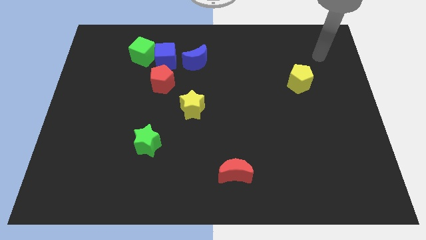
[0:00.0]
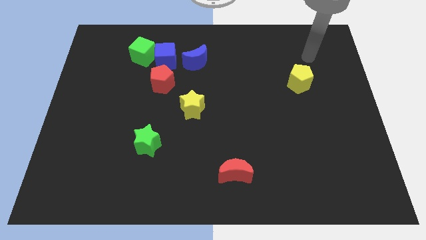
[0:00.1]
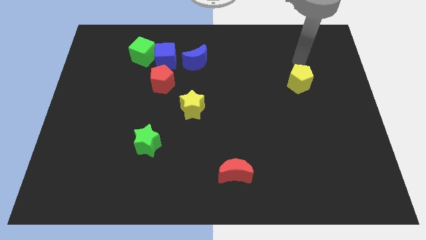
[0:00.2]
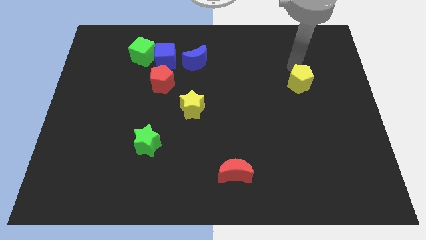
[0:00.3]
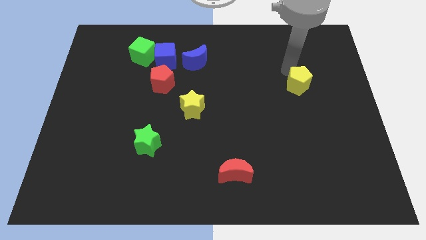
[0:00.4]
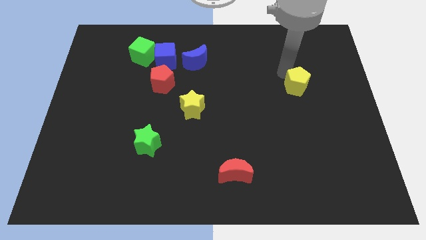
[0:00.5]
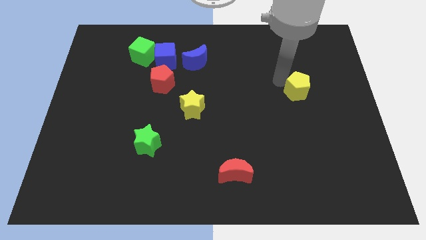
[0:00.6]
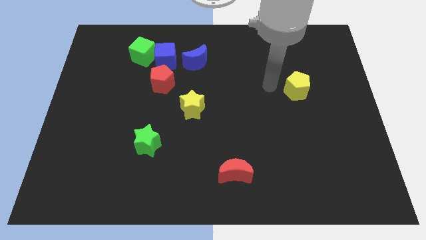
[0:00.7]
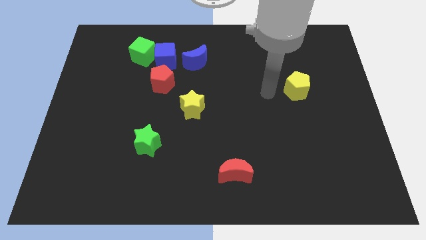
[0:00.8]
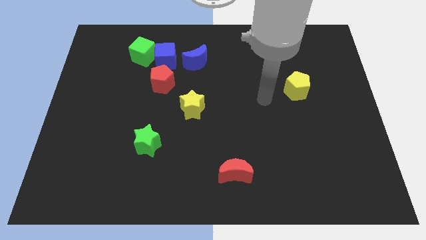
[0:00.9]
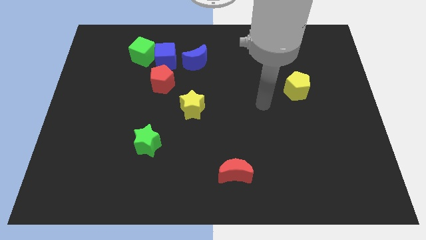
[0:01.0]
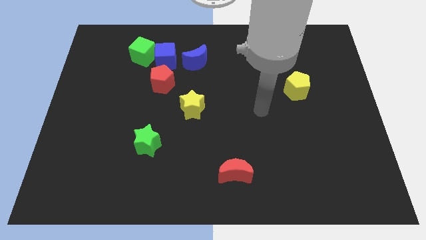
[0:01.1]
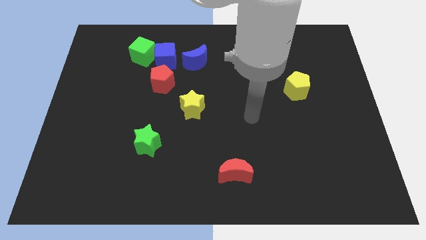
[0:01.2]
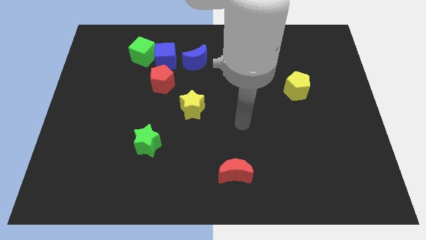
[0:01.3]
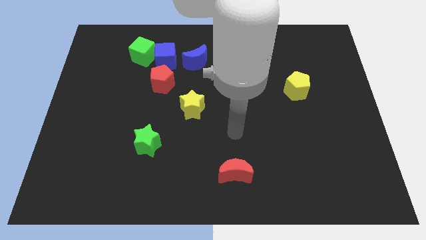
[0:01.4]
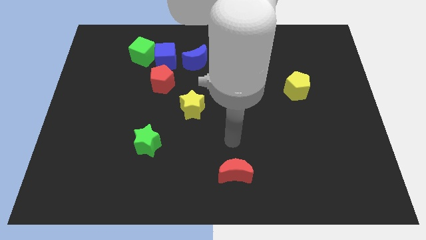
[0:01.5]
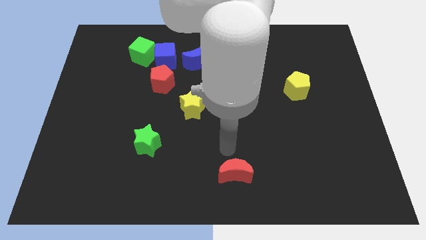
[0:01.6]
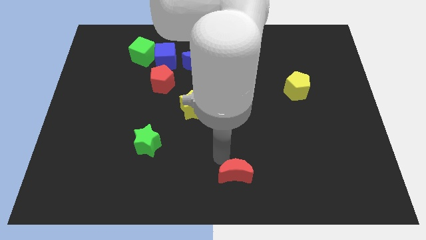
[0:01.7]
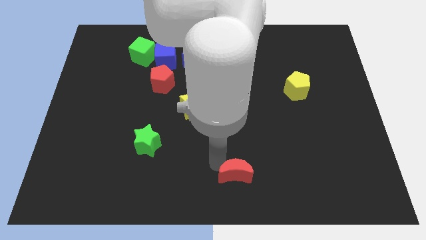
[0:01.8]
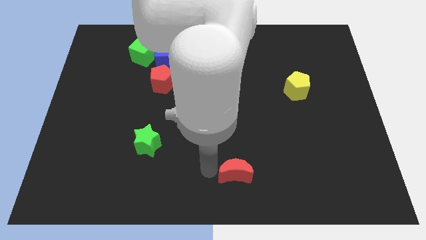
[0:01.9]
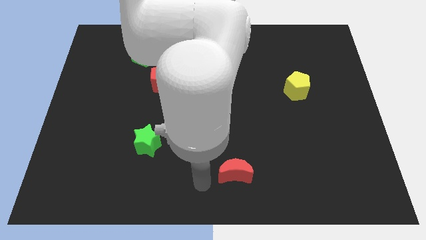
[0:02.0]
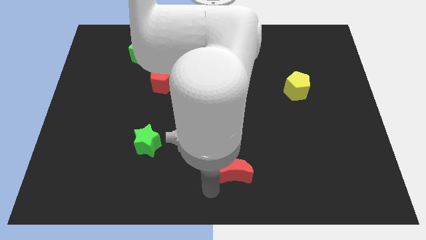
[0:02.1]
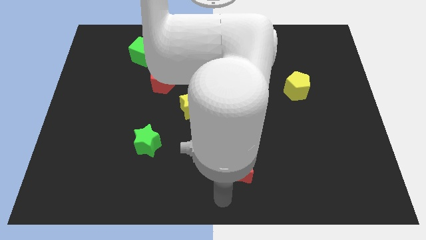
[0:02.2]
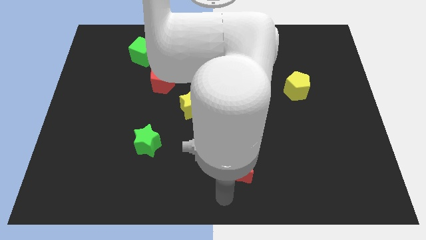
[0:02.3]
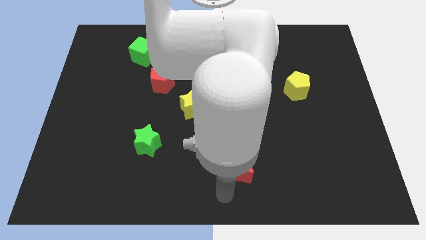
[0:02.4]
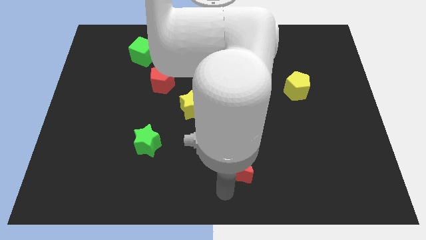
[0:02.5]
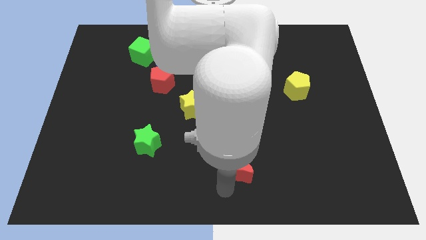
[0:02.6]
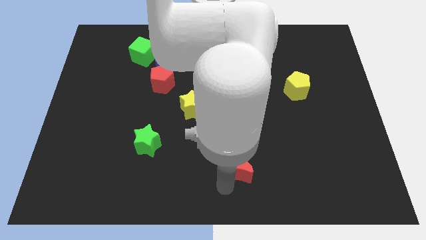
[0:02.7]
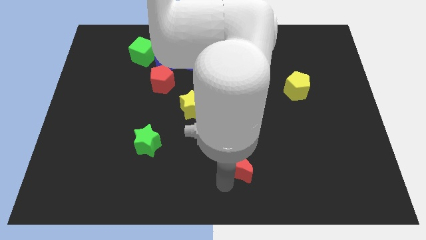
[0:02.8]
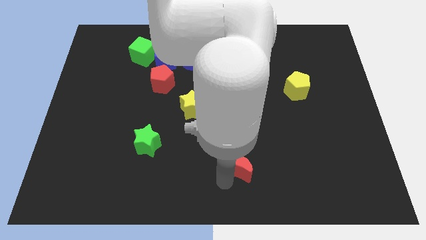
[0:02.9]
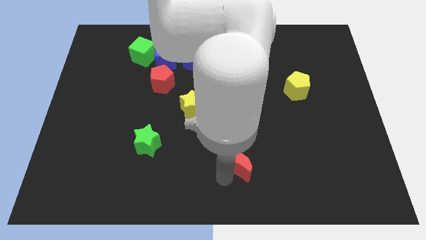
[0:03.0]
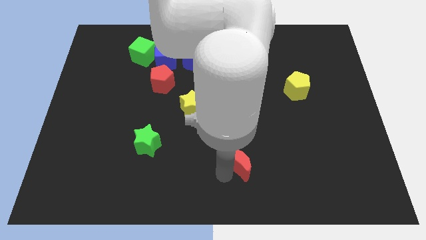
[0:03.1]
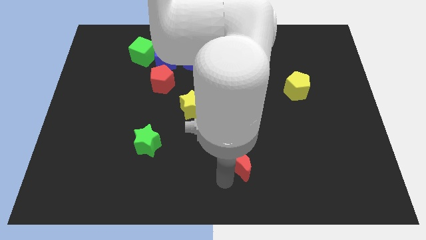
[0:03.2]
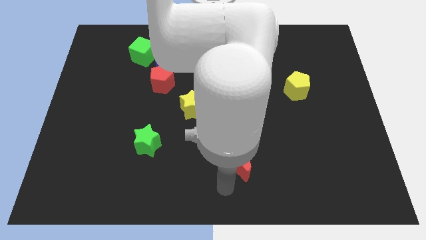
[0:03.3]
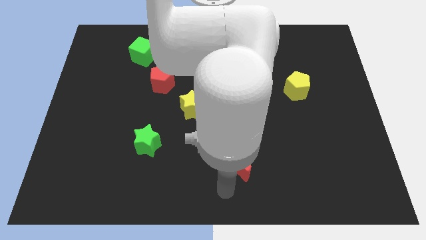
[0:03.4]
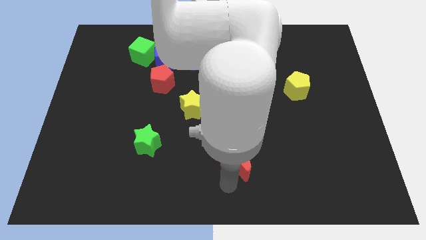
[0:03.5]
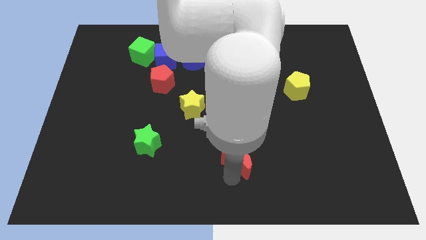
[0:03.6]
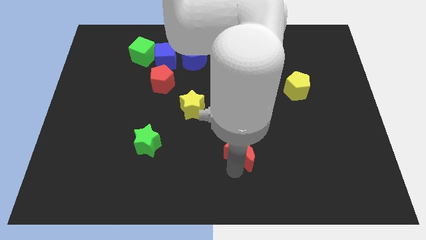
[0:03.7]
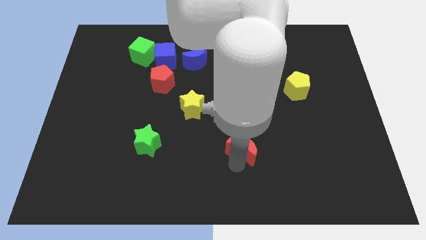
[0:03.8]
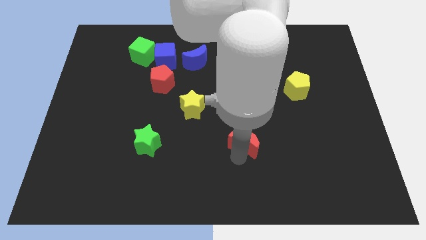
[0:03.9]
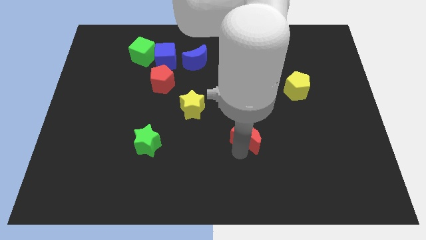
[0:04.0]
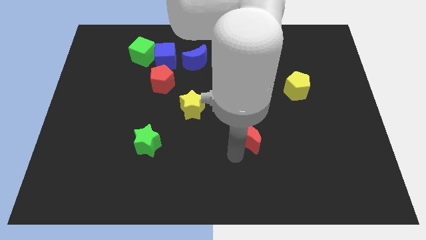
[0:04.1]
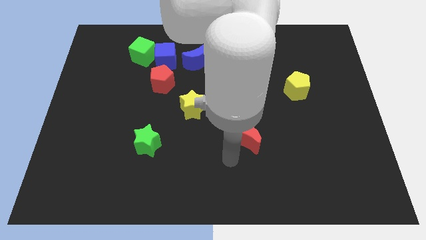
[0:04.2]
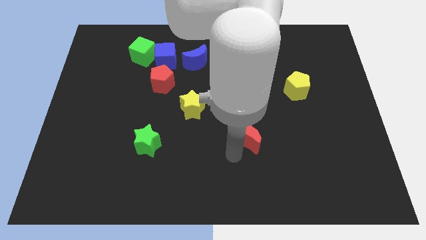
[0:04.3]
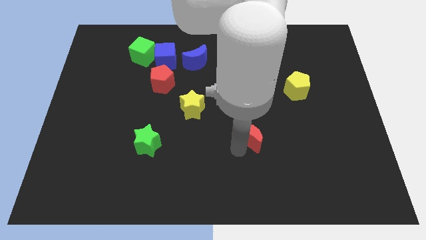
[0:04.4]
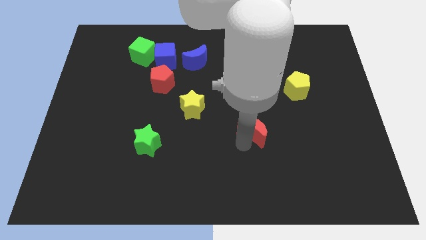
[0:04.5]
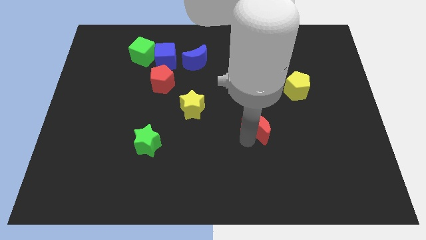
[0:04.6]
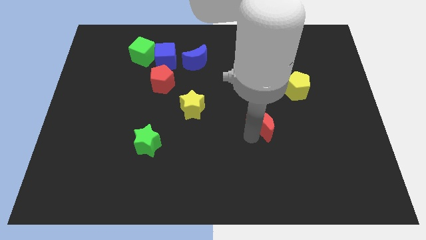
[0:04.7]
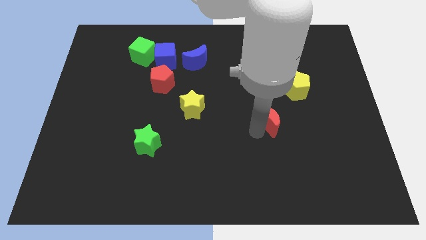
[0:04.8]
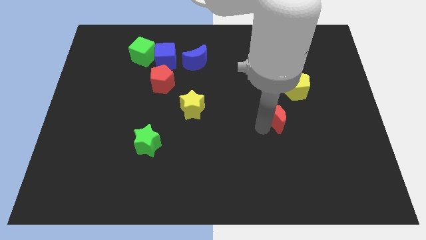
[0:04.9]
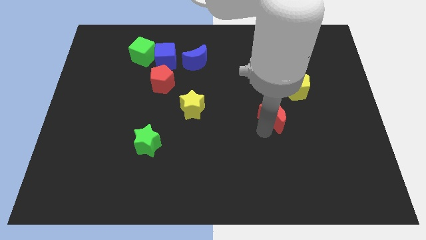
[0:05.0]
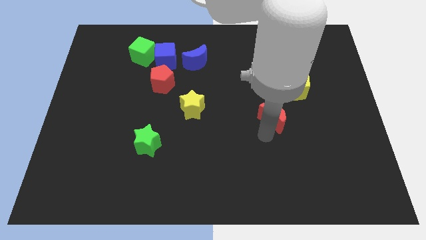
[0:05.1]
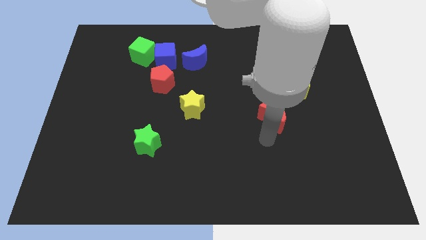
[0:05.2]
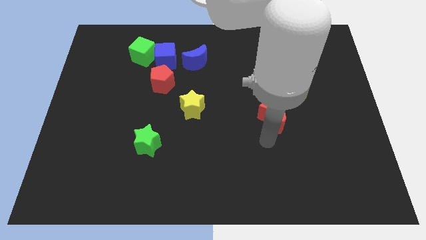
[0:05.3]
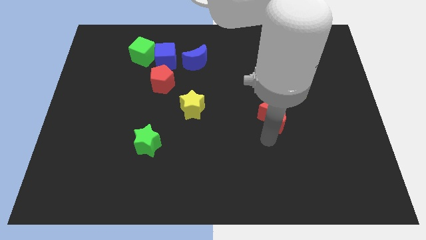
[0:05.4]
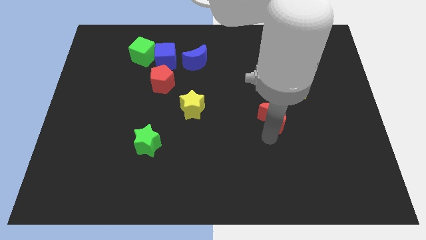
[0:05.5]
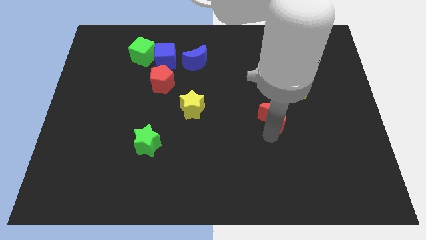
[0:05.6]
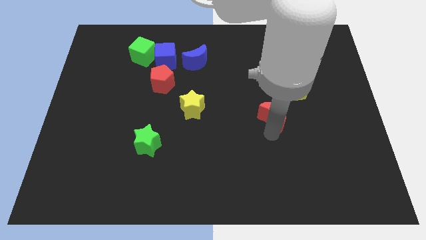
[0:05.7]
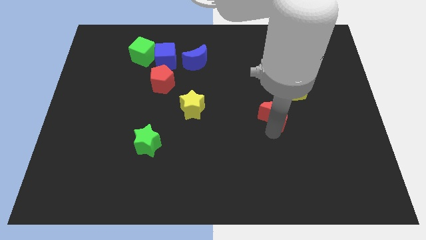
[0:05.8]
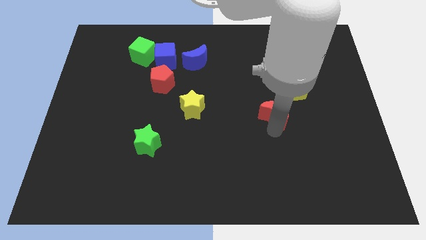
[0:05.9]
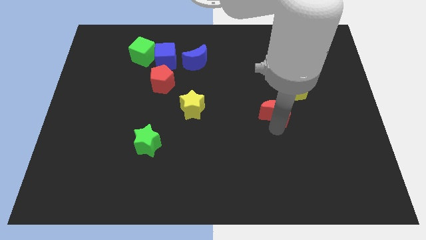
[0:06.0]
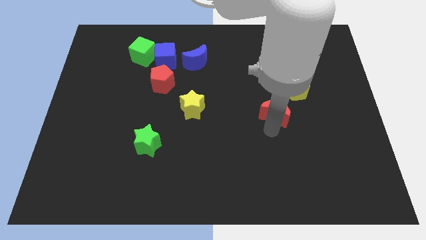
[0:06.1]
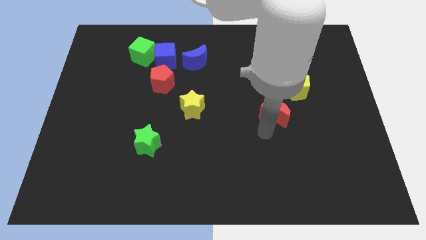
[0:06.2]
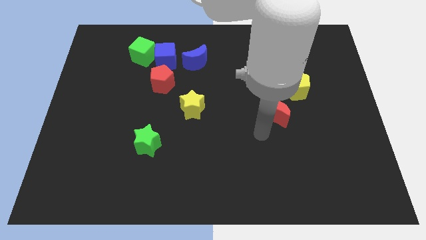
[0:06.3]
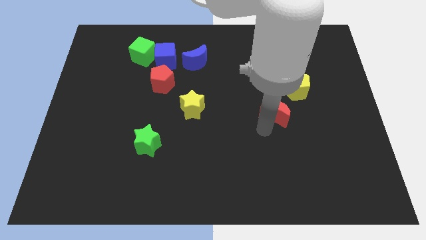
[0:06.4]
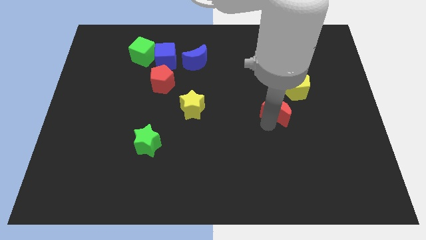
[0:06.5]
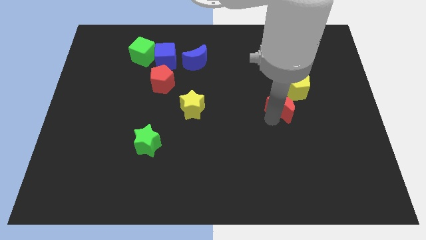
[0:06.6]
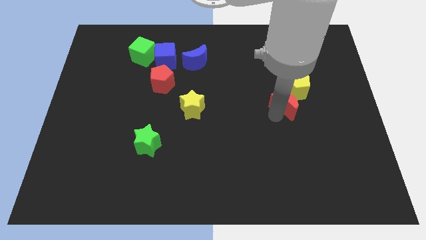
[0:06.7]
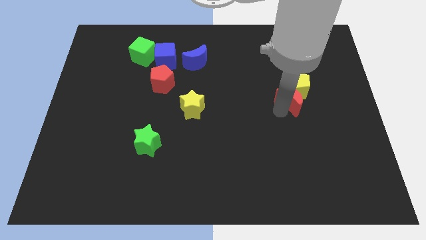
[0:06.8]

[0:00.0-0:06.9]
move the red moon to the yellow pentagon

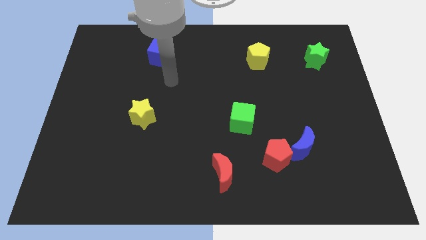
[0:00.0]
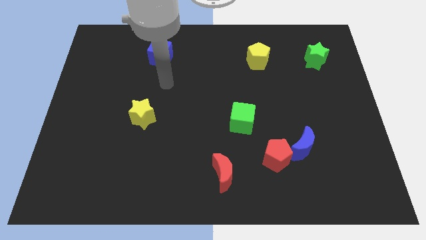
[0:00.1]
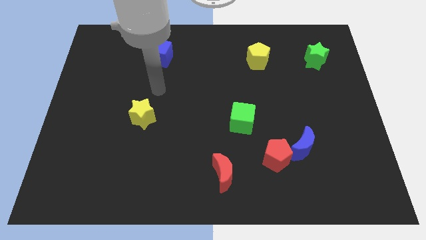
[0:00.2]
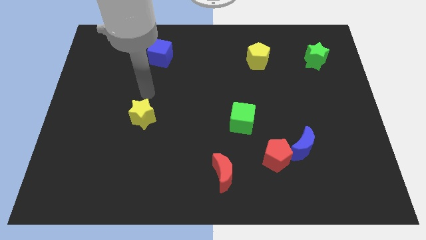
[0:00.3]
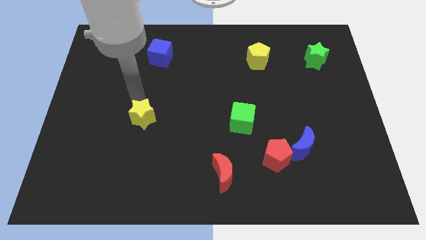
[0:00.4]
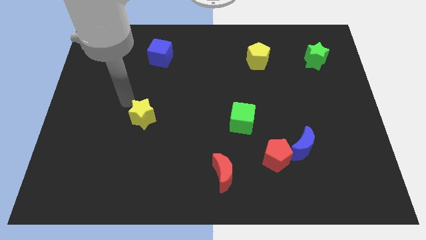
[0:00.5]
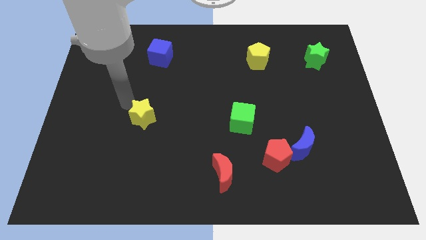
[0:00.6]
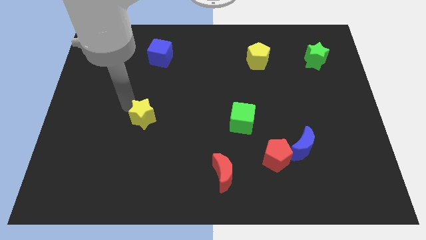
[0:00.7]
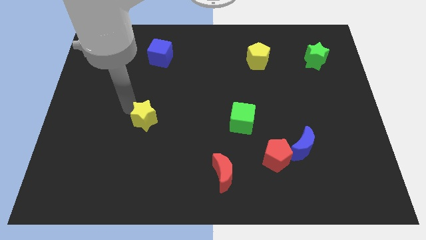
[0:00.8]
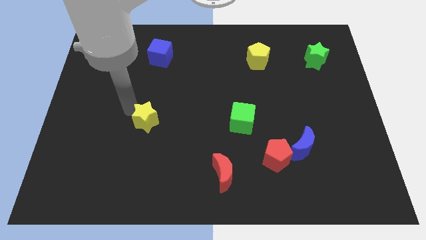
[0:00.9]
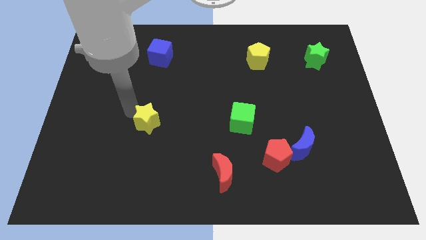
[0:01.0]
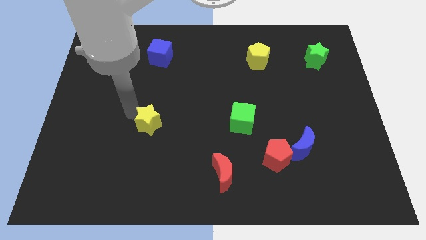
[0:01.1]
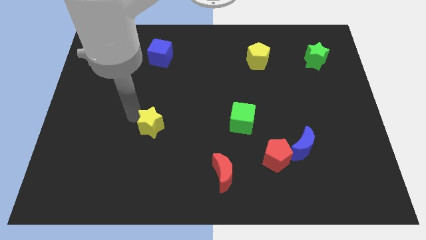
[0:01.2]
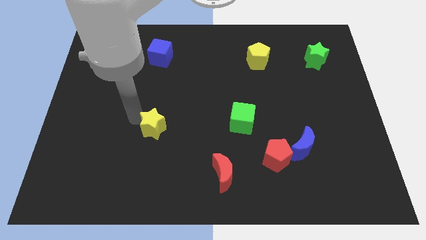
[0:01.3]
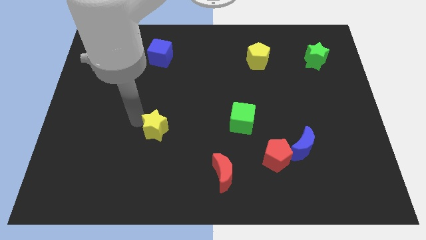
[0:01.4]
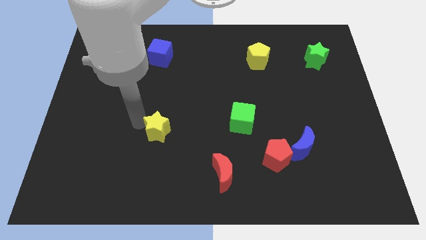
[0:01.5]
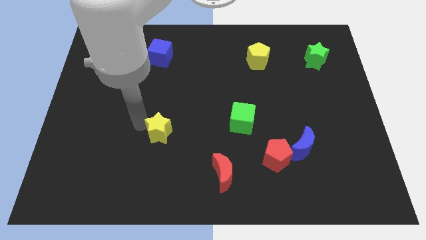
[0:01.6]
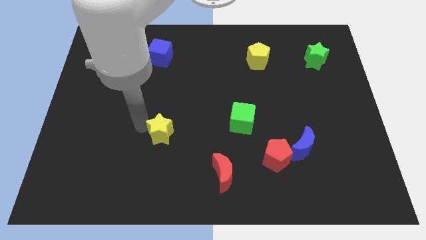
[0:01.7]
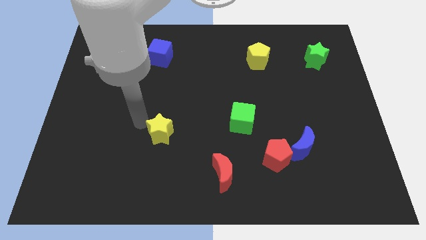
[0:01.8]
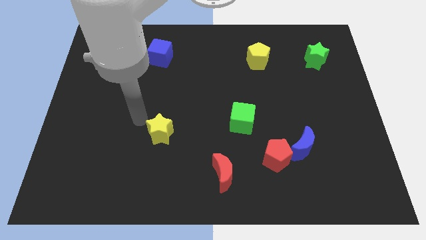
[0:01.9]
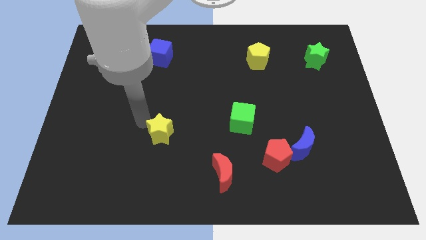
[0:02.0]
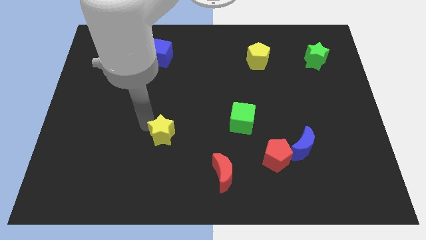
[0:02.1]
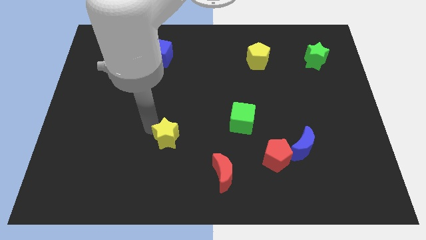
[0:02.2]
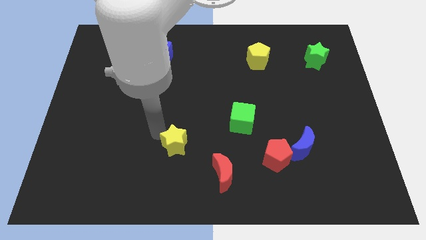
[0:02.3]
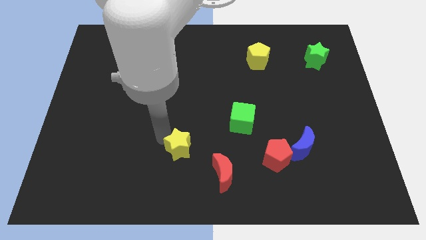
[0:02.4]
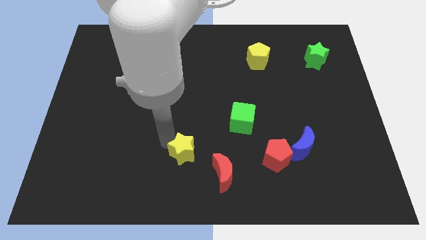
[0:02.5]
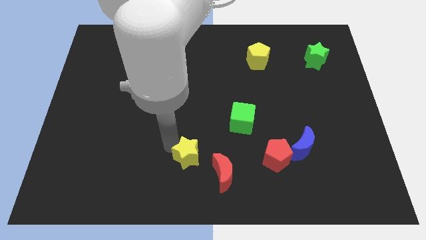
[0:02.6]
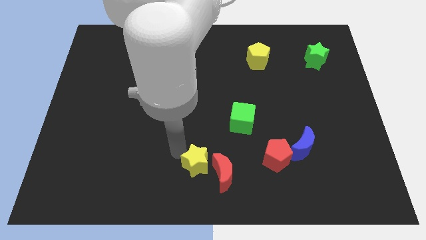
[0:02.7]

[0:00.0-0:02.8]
slide the yellow star next to the red moon
